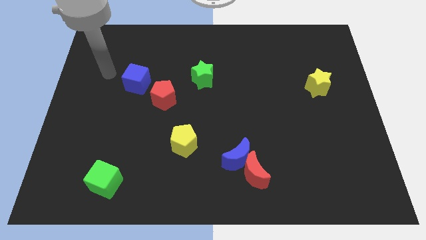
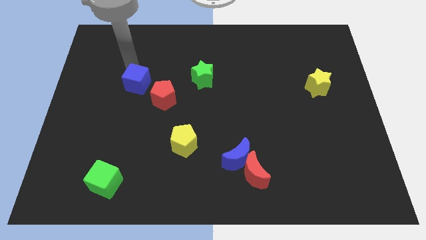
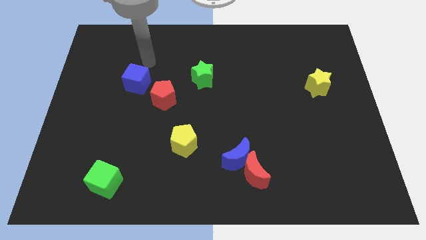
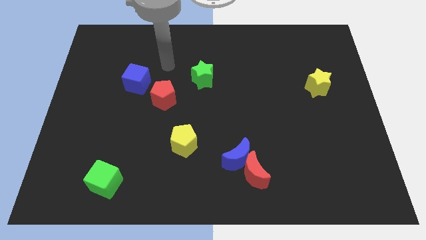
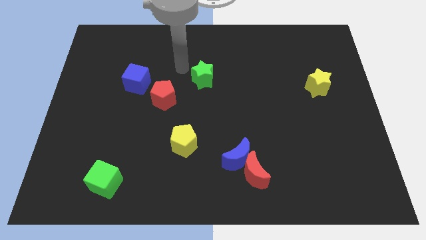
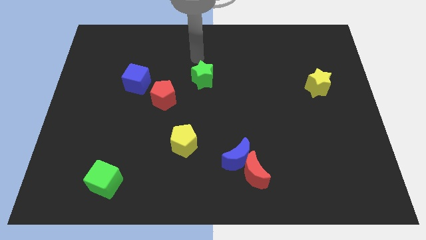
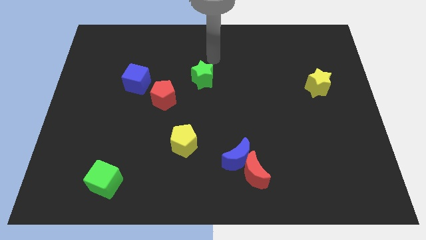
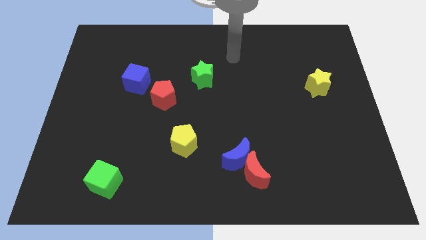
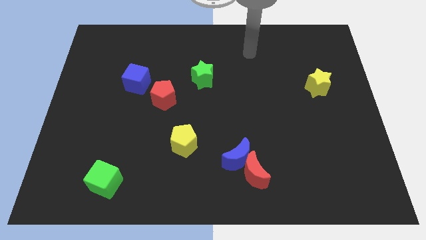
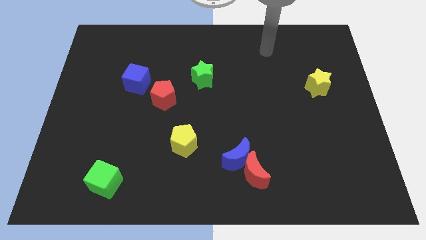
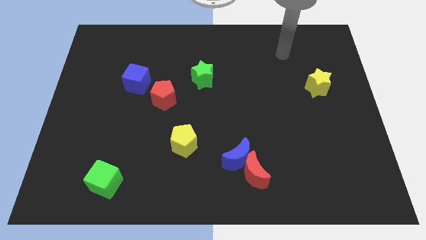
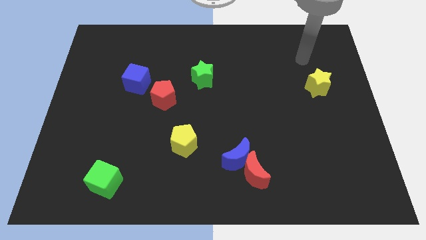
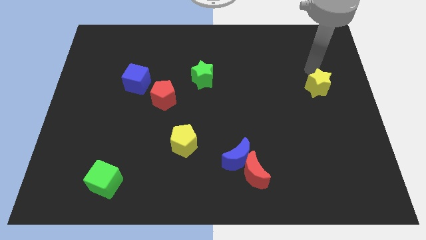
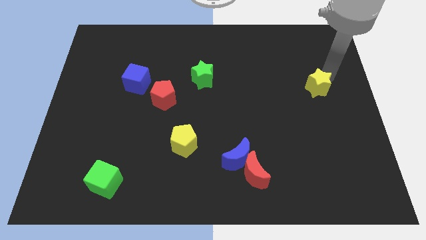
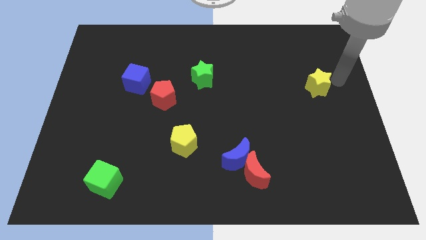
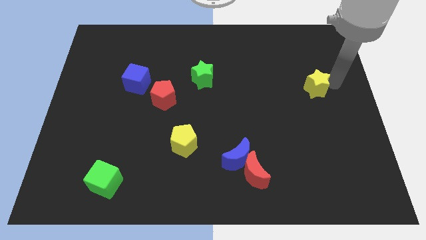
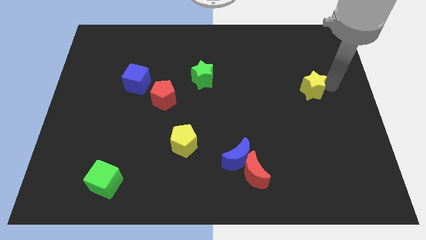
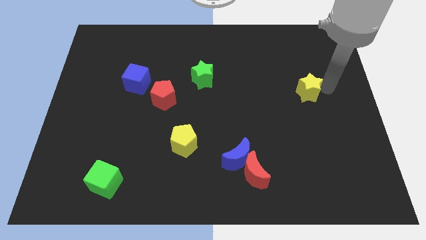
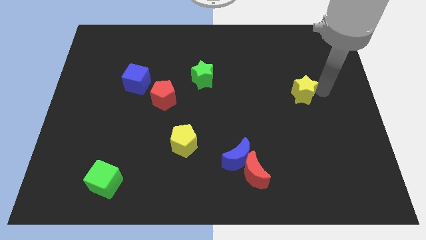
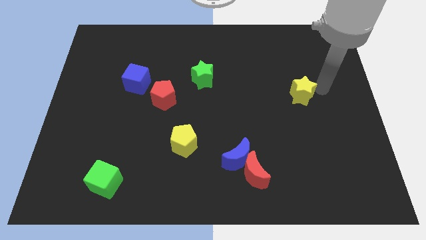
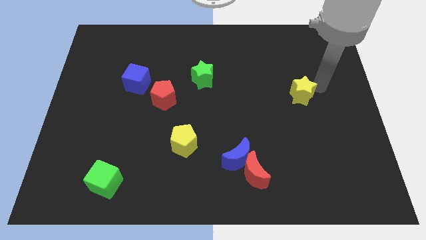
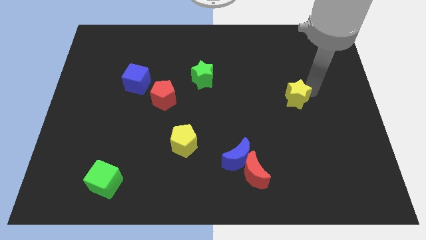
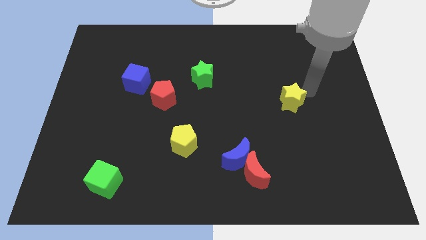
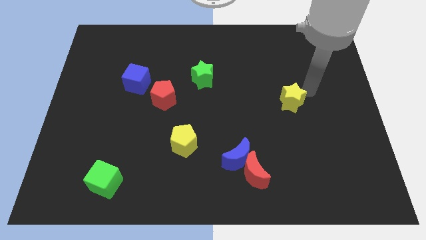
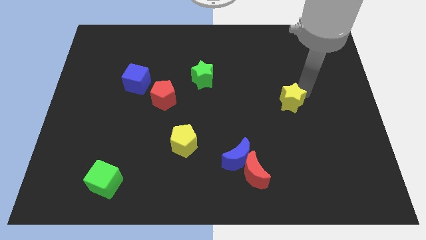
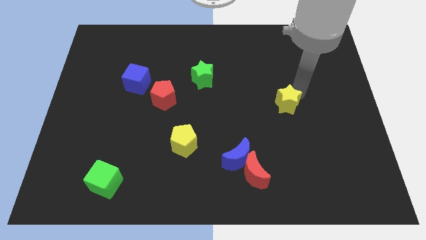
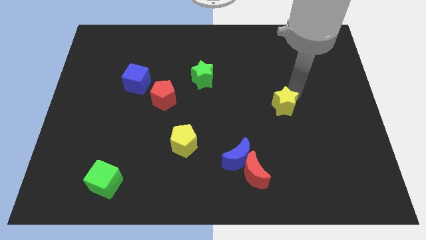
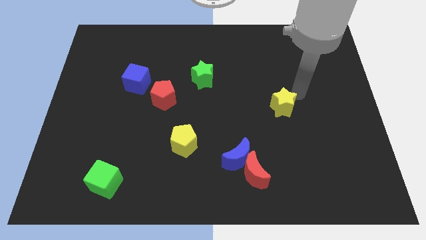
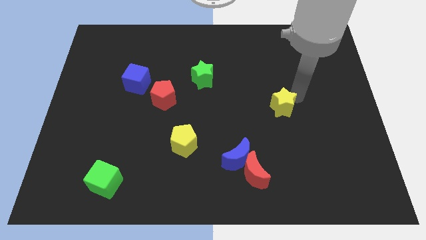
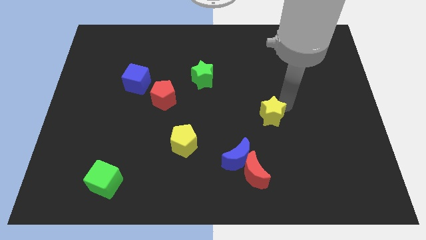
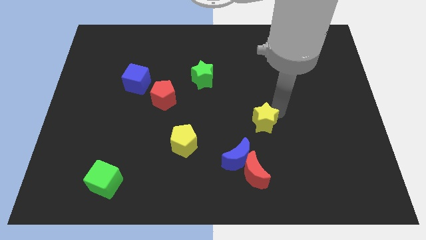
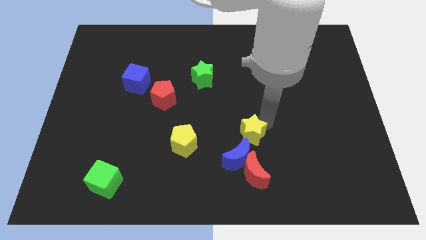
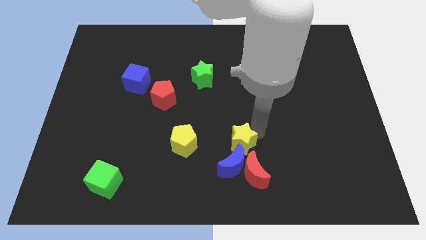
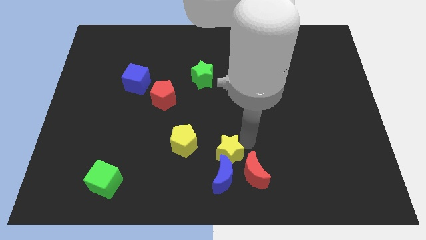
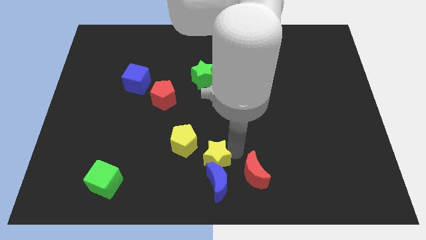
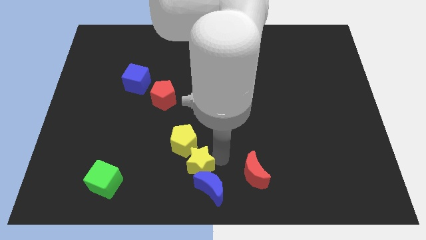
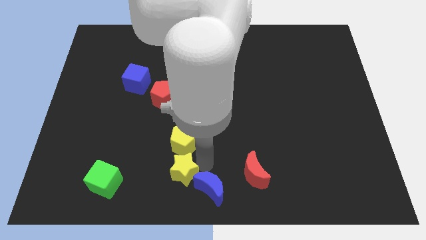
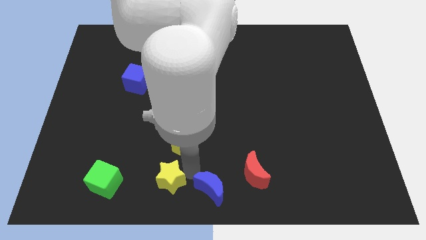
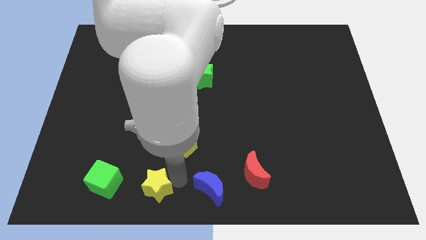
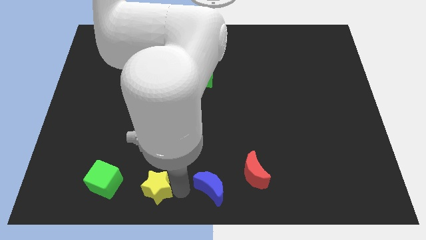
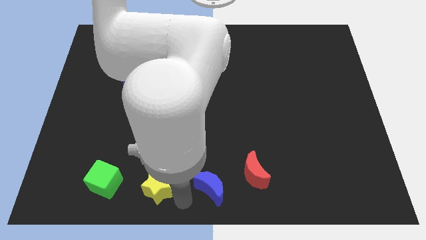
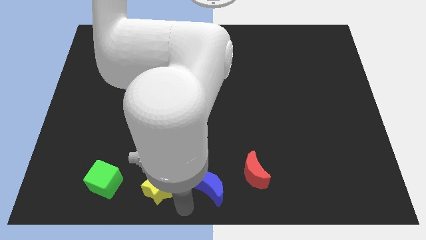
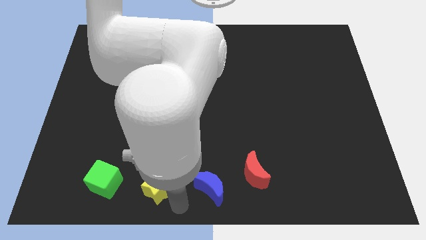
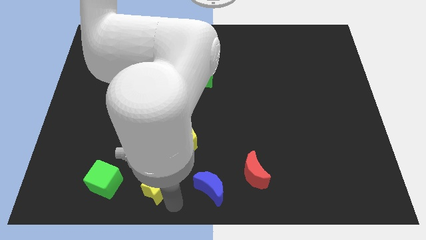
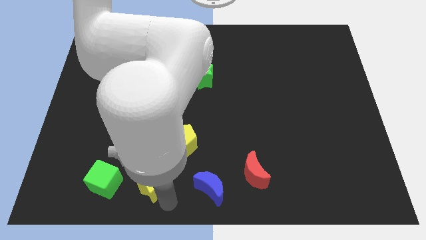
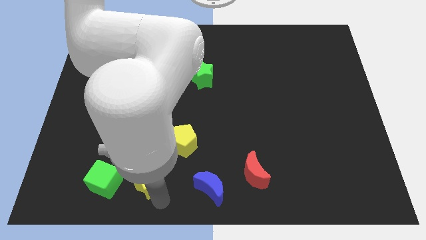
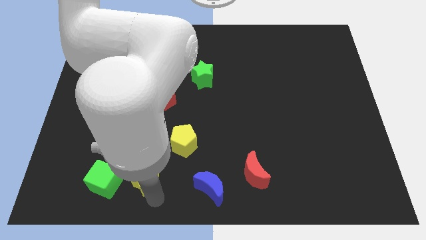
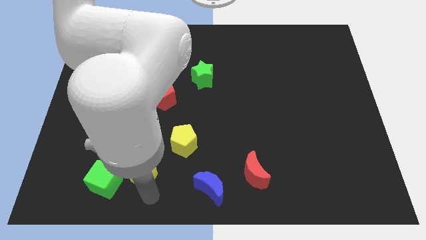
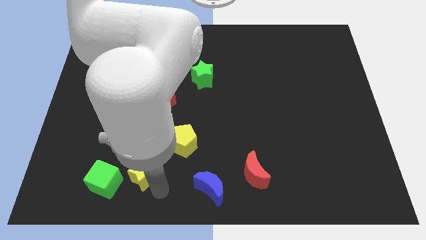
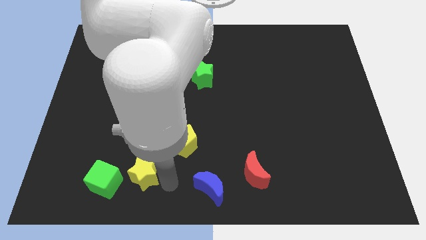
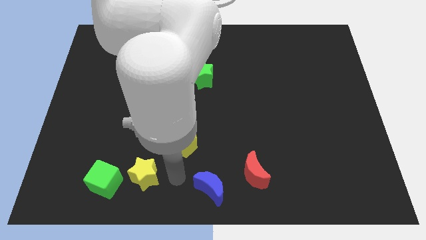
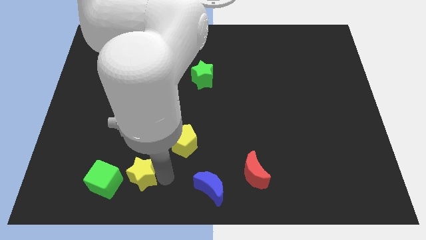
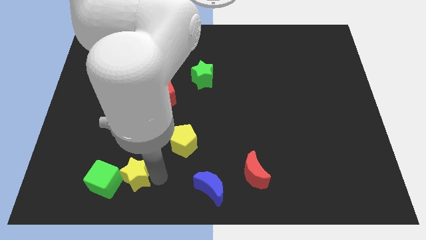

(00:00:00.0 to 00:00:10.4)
move the yellow star next to the green cube

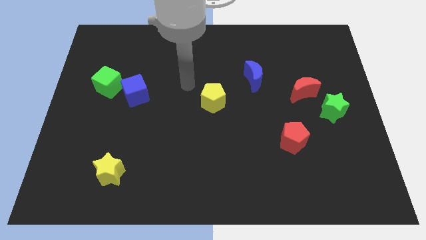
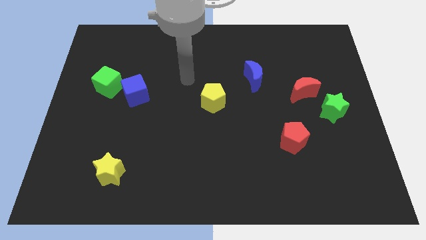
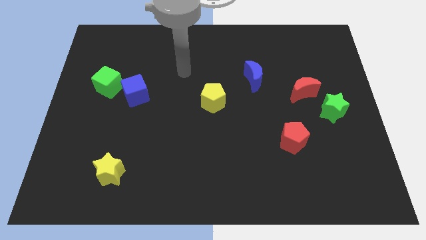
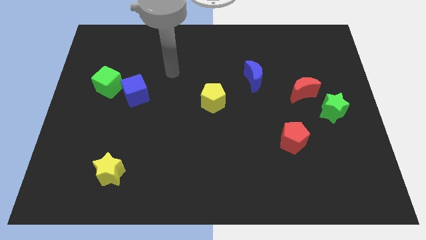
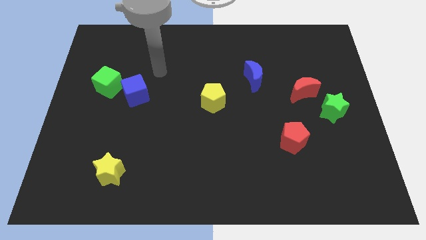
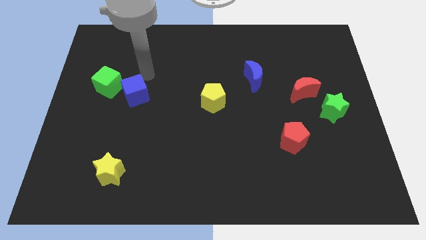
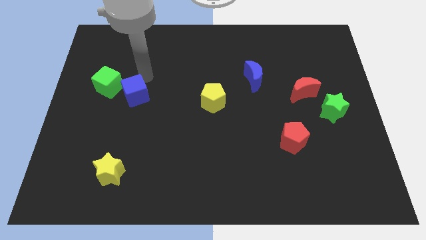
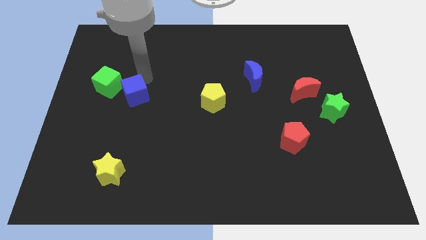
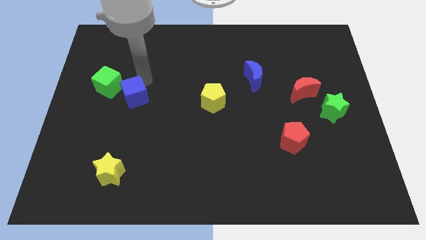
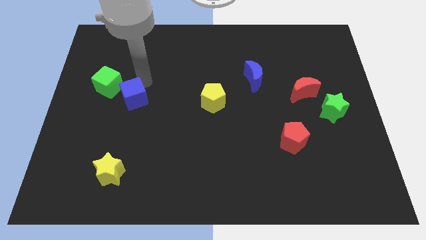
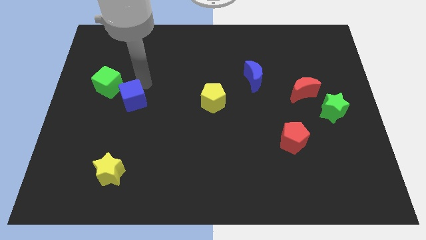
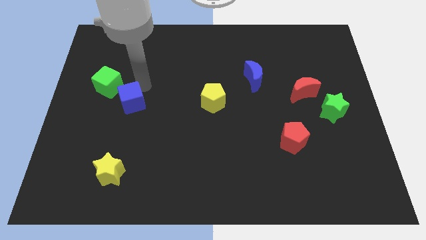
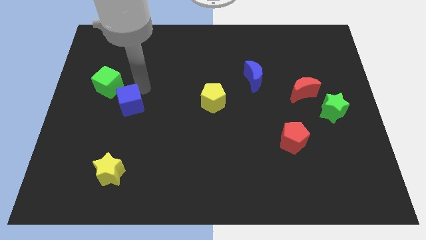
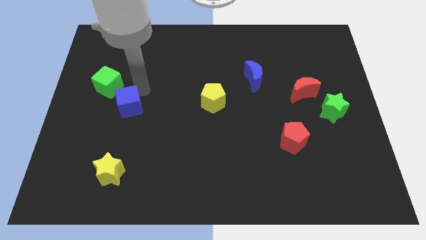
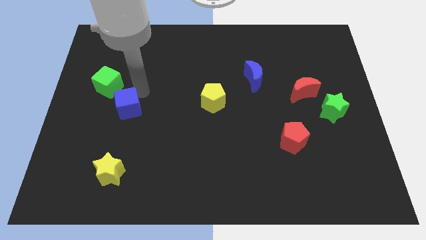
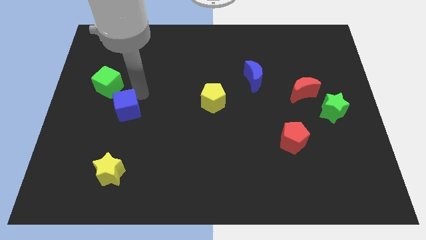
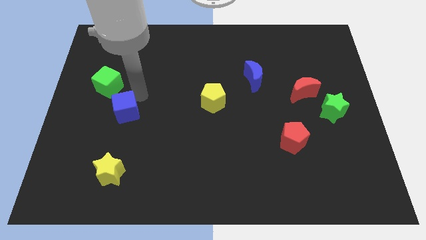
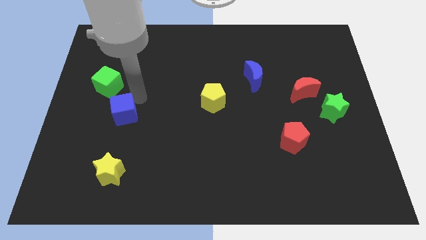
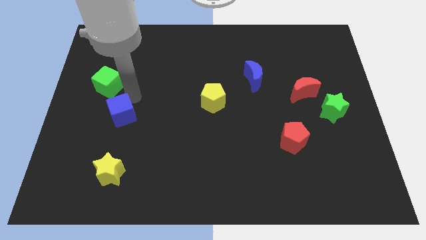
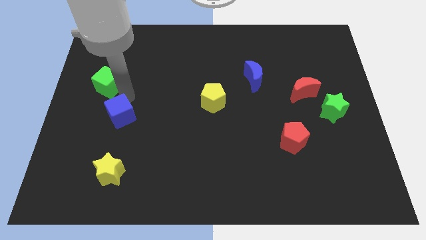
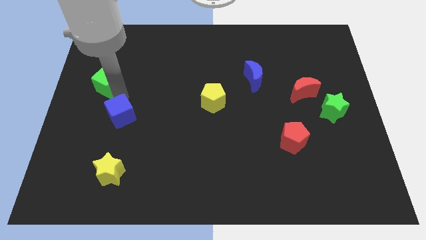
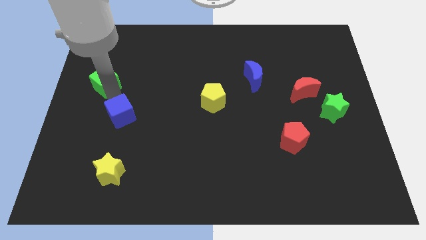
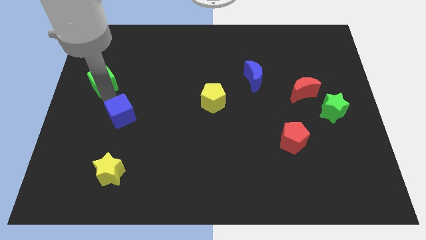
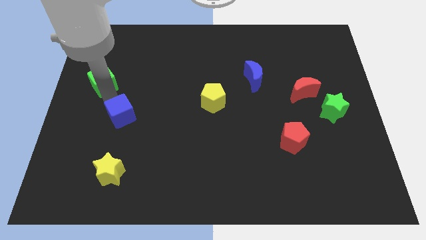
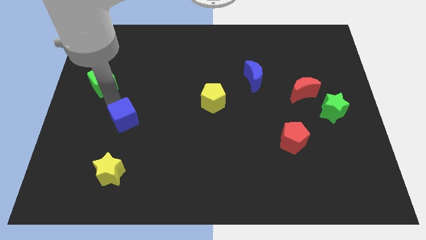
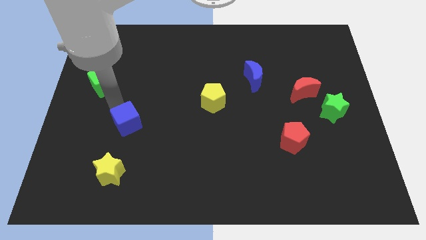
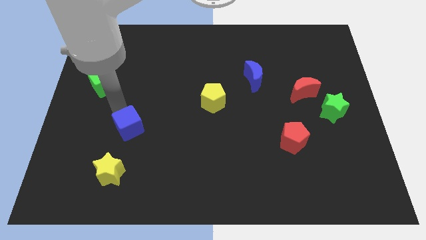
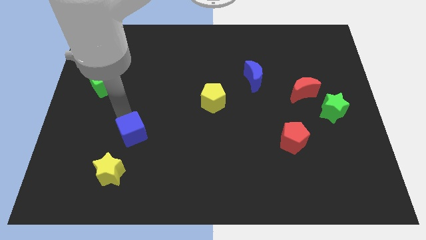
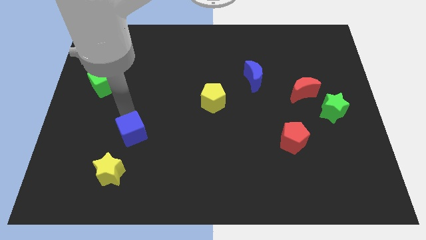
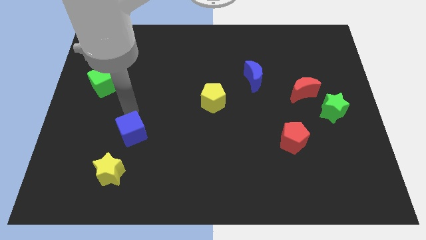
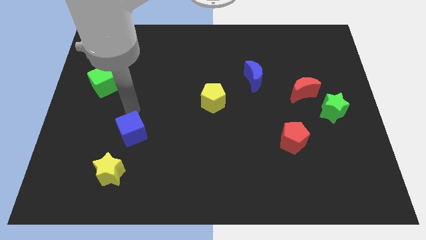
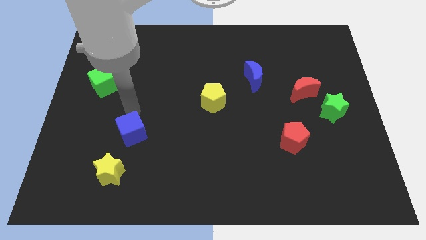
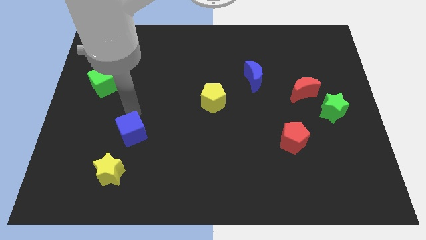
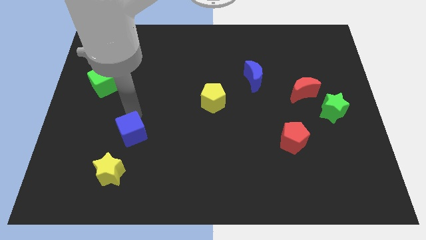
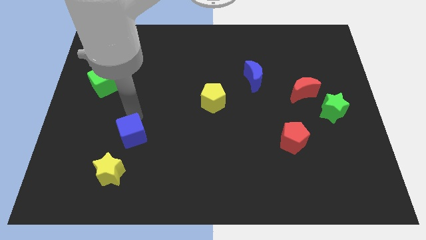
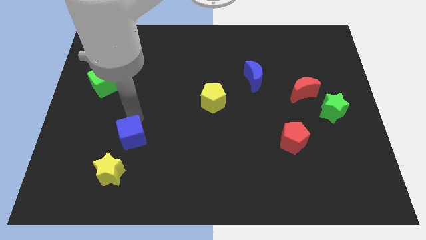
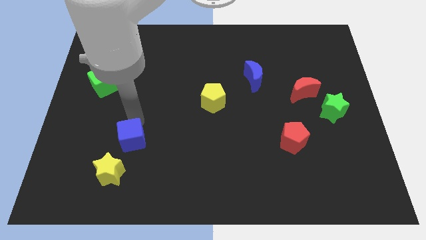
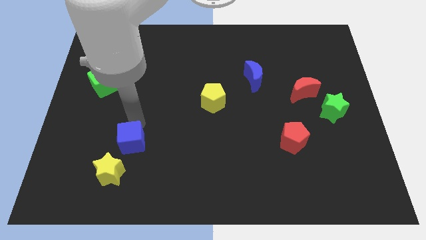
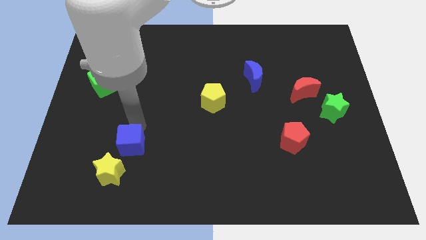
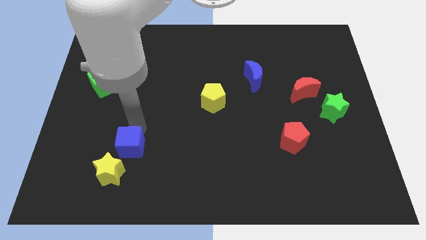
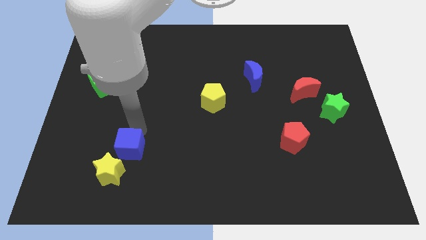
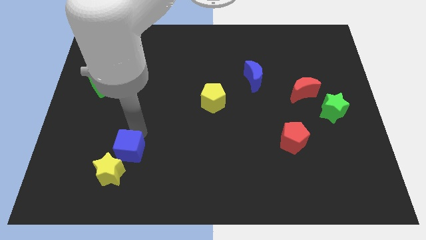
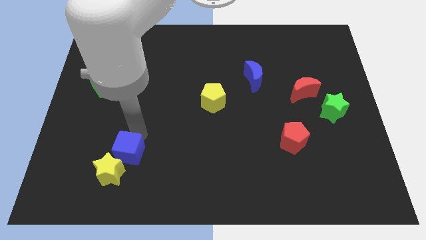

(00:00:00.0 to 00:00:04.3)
push the blue cube to the yellow star
